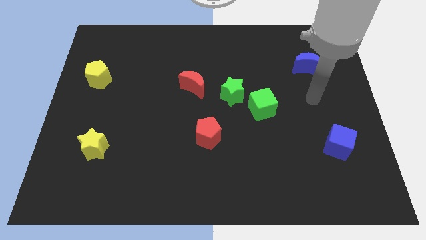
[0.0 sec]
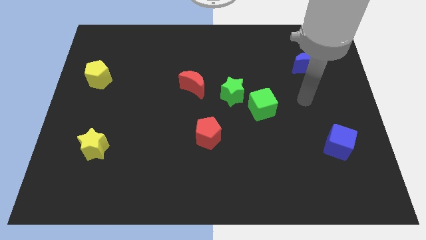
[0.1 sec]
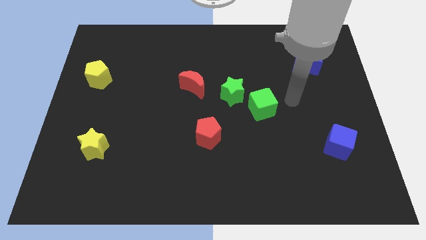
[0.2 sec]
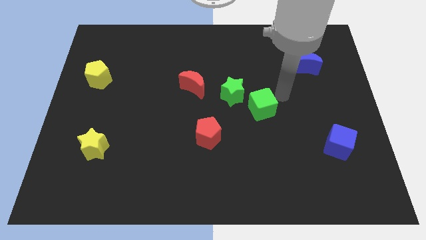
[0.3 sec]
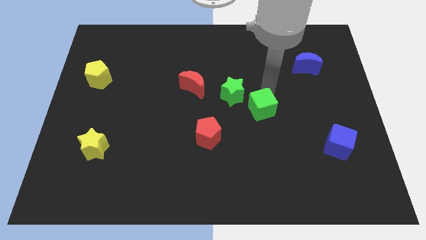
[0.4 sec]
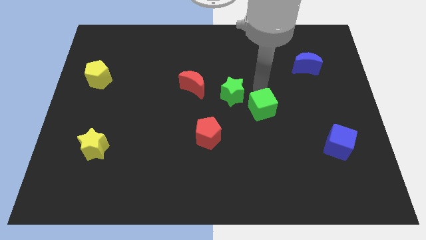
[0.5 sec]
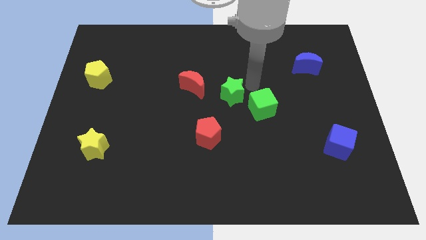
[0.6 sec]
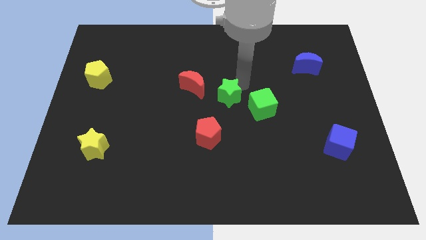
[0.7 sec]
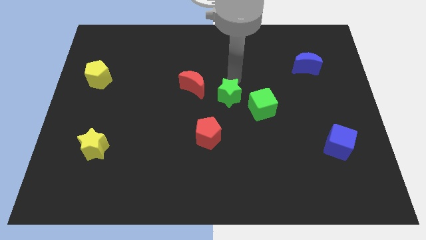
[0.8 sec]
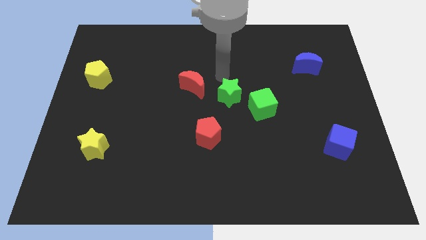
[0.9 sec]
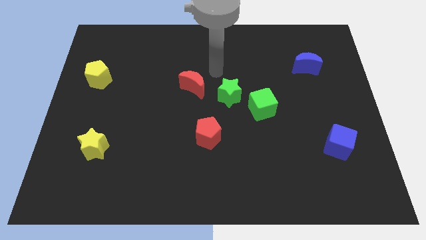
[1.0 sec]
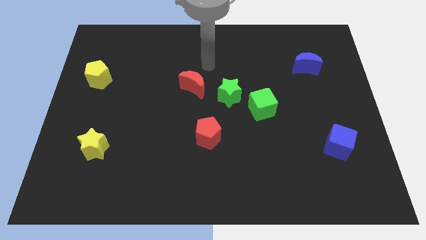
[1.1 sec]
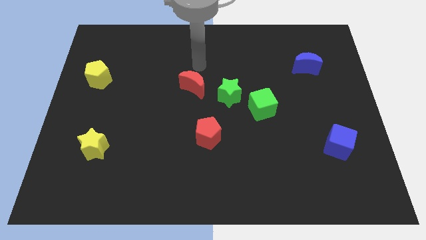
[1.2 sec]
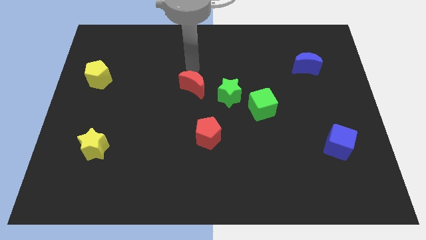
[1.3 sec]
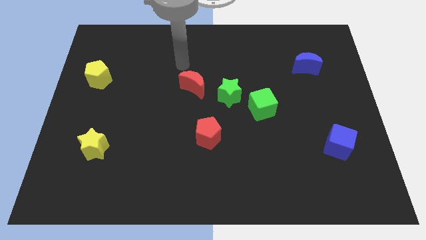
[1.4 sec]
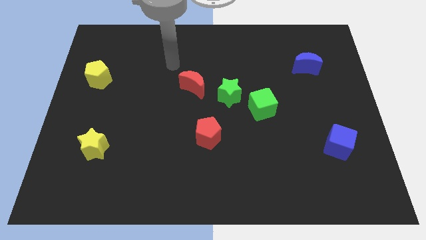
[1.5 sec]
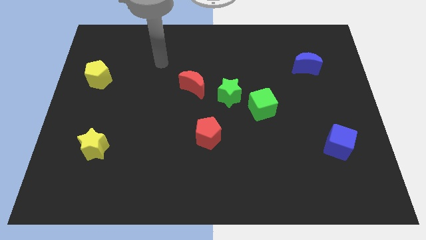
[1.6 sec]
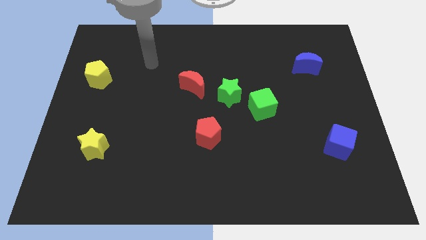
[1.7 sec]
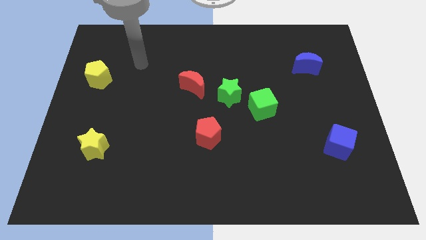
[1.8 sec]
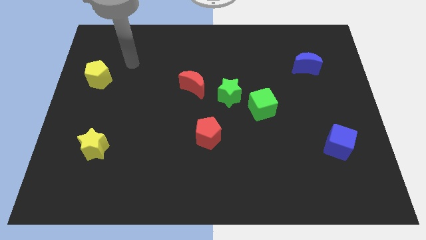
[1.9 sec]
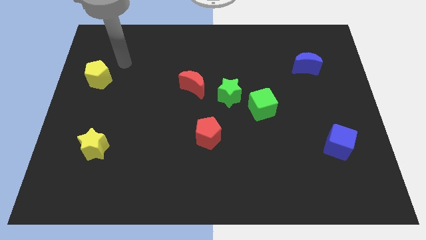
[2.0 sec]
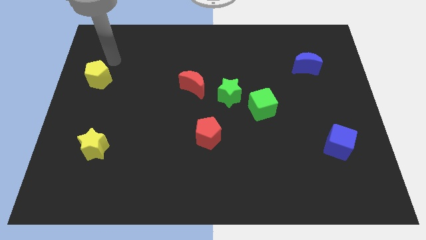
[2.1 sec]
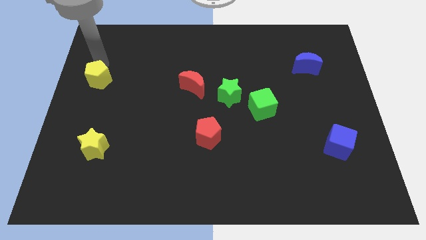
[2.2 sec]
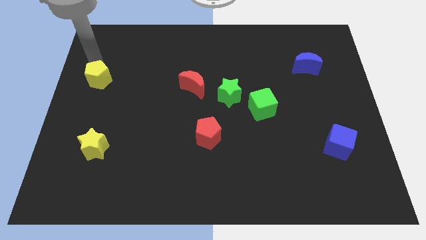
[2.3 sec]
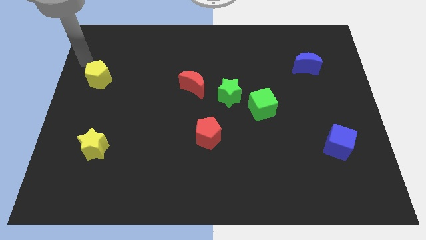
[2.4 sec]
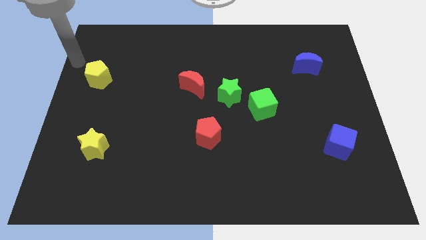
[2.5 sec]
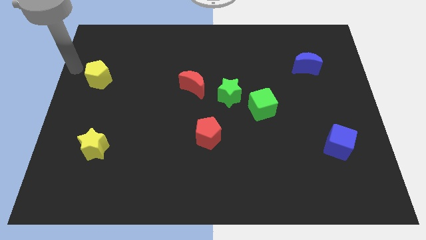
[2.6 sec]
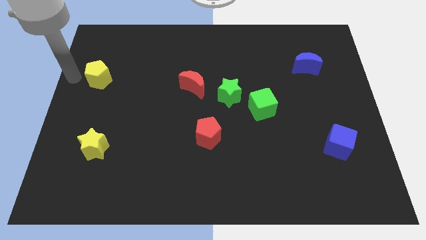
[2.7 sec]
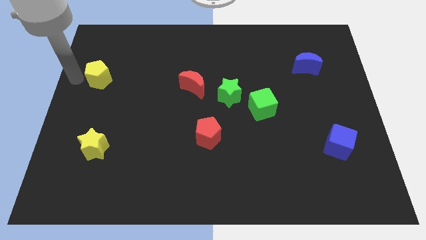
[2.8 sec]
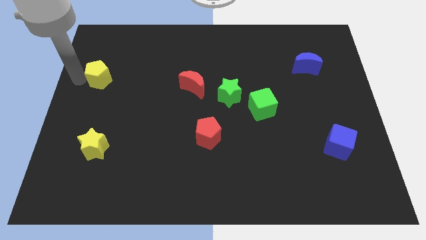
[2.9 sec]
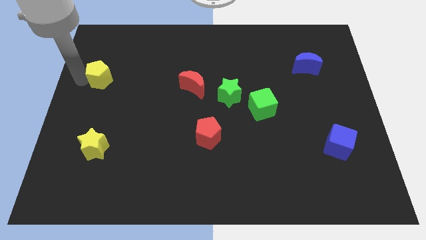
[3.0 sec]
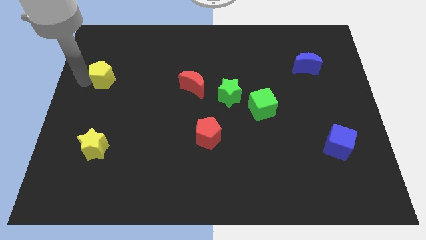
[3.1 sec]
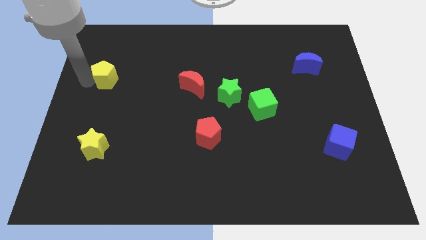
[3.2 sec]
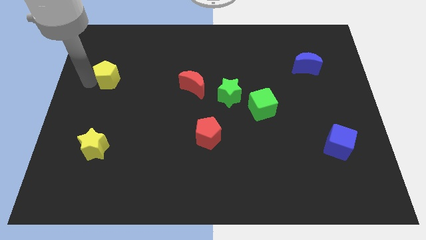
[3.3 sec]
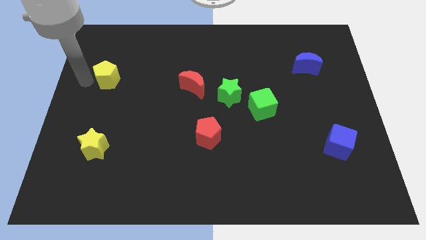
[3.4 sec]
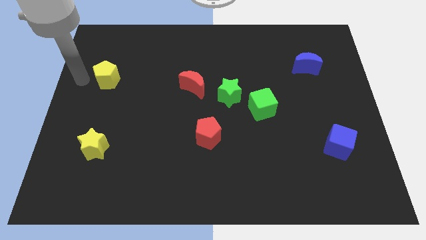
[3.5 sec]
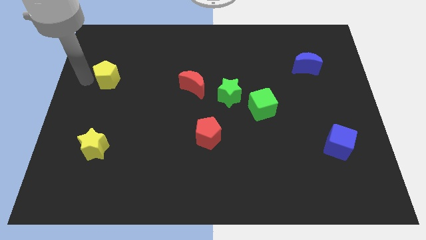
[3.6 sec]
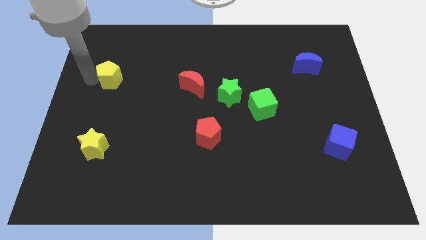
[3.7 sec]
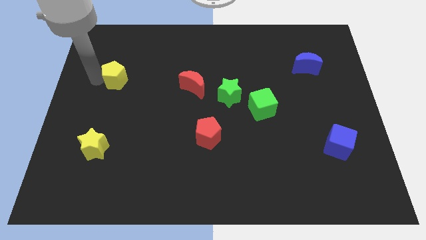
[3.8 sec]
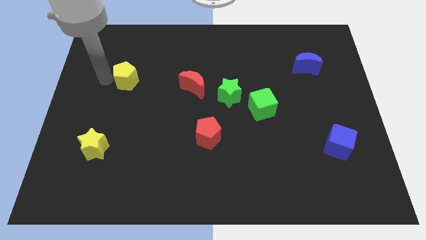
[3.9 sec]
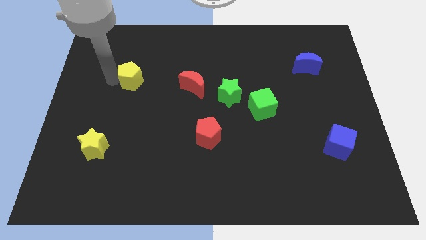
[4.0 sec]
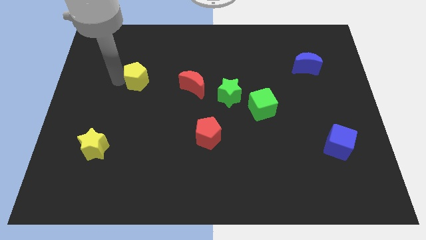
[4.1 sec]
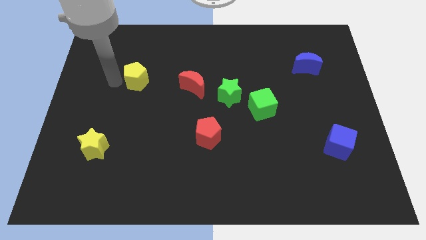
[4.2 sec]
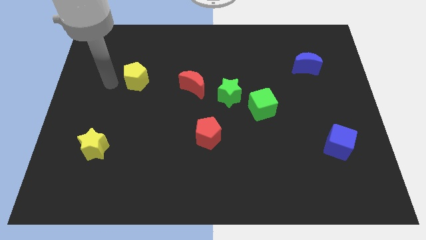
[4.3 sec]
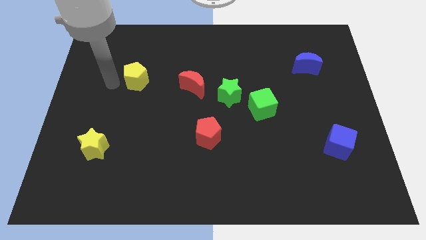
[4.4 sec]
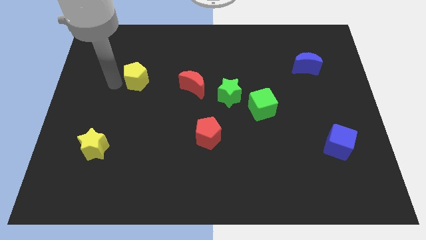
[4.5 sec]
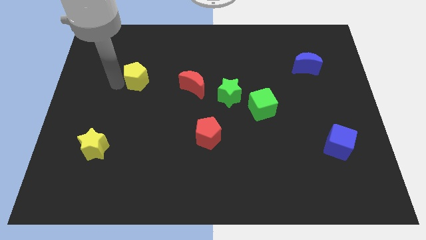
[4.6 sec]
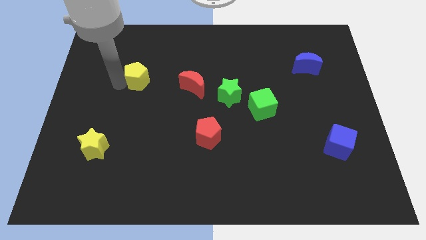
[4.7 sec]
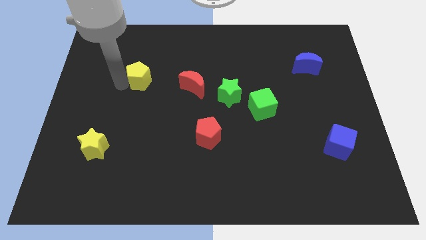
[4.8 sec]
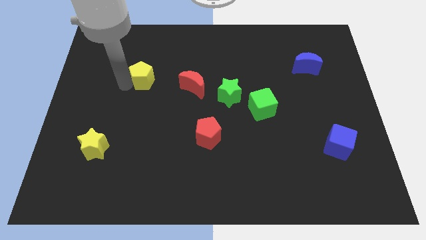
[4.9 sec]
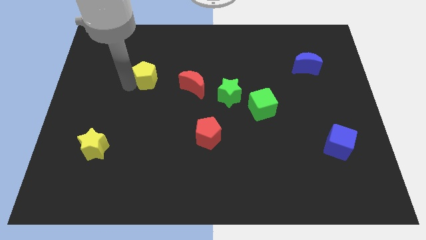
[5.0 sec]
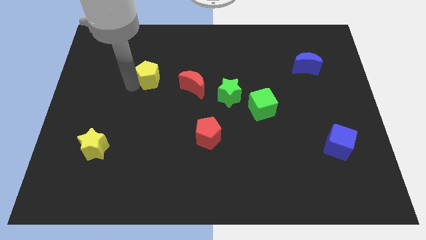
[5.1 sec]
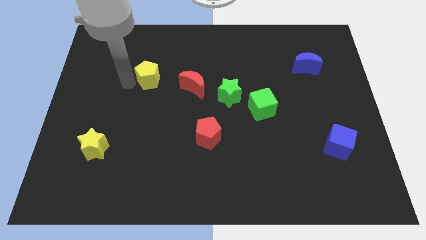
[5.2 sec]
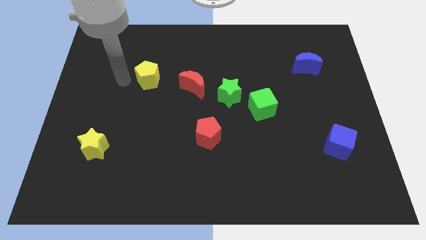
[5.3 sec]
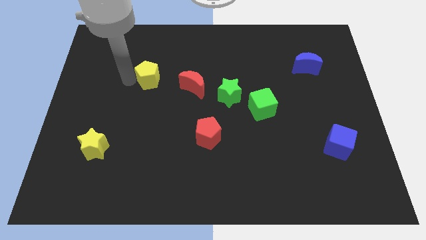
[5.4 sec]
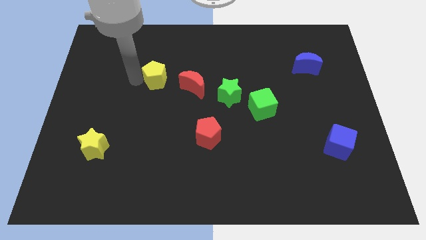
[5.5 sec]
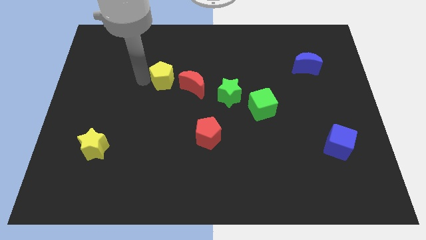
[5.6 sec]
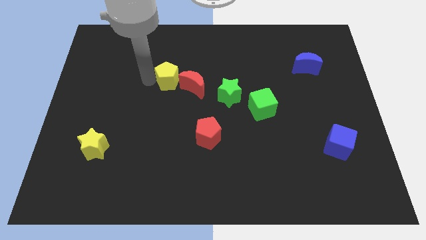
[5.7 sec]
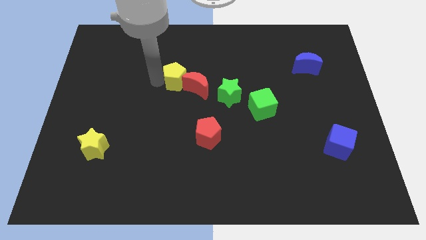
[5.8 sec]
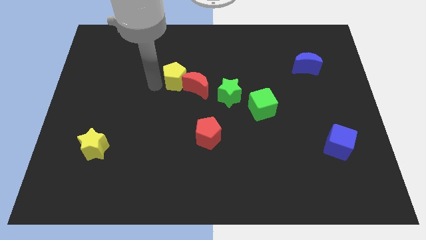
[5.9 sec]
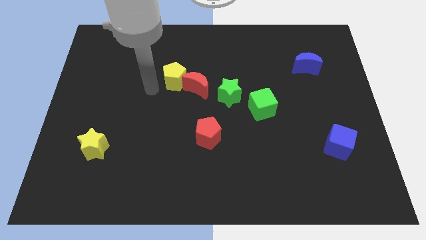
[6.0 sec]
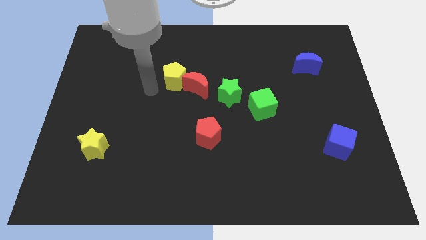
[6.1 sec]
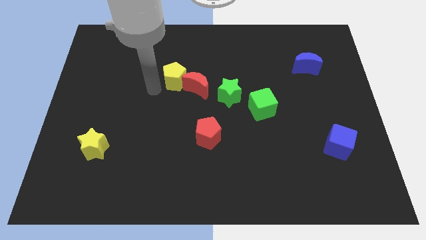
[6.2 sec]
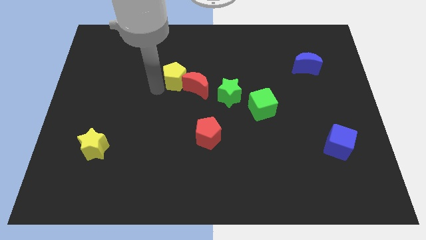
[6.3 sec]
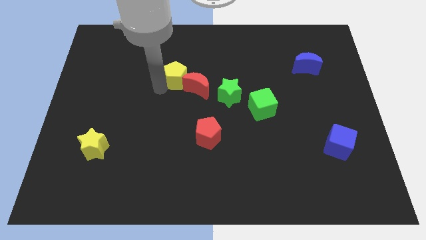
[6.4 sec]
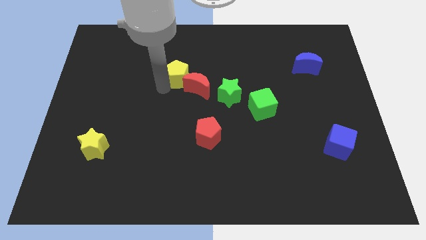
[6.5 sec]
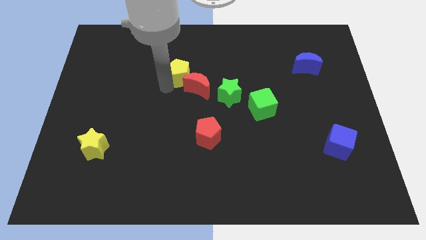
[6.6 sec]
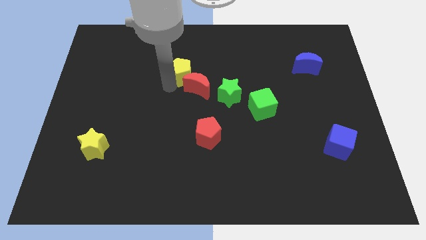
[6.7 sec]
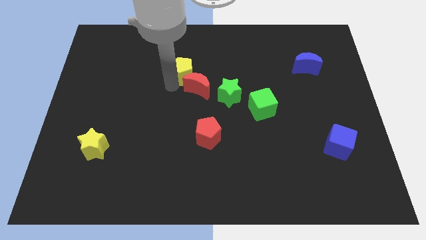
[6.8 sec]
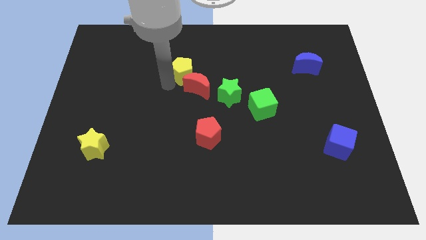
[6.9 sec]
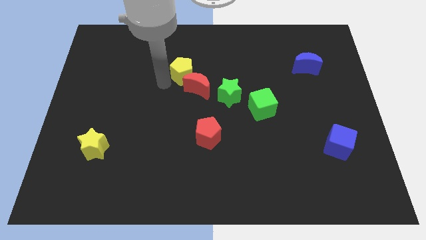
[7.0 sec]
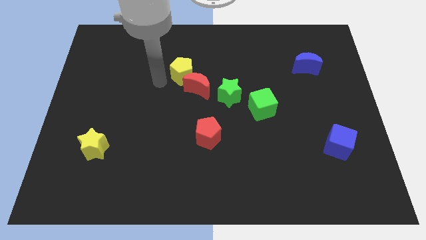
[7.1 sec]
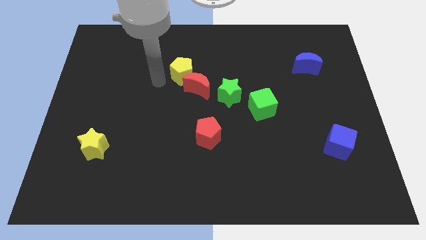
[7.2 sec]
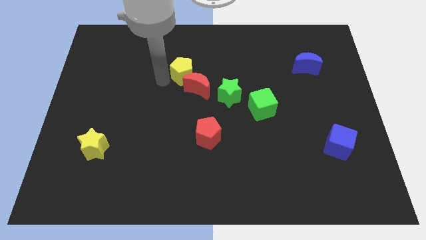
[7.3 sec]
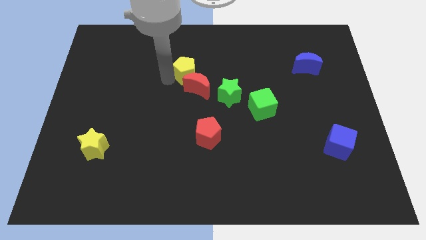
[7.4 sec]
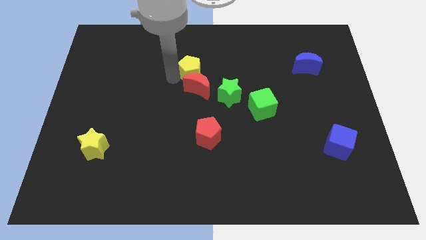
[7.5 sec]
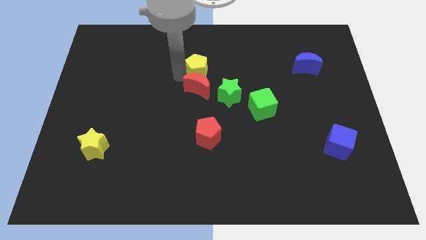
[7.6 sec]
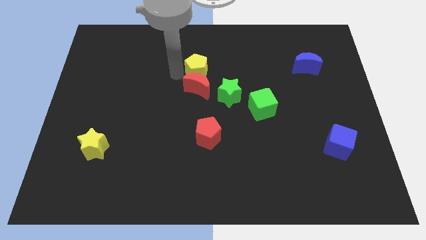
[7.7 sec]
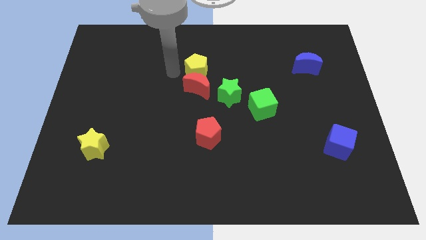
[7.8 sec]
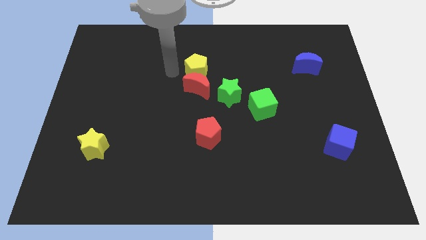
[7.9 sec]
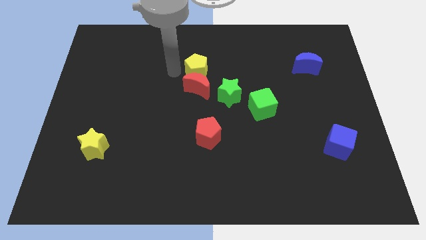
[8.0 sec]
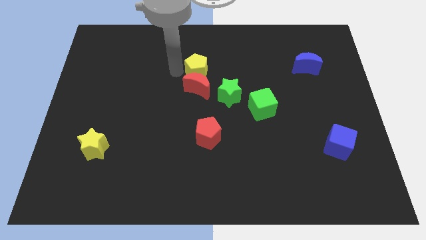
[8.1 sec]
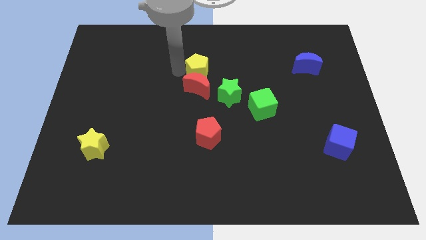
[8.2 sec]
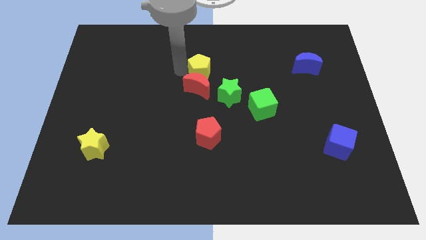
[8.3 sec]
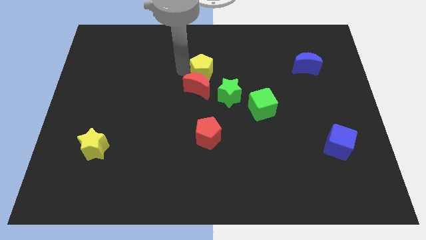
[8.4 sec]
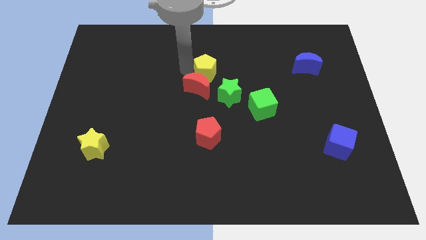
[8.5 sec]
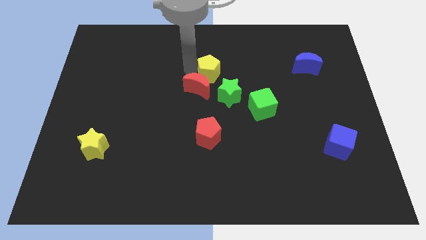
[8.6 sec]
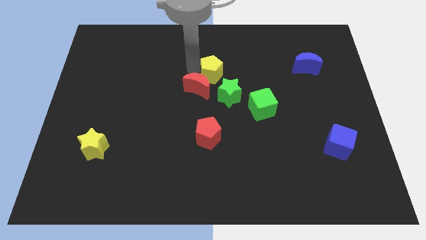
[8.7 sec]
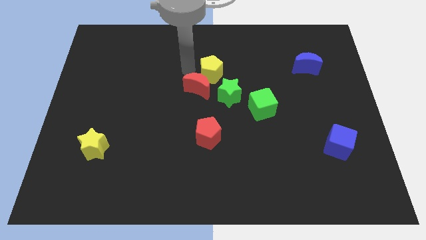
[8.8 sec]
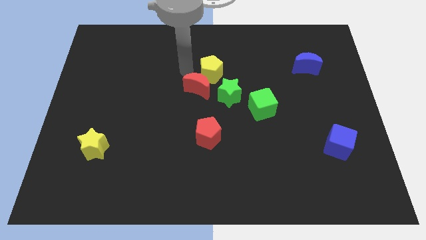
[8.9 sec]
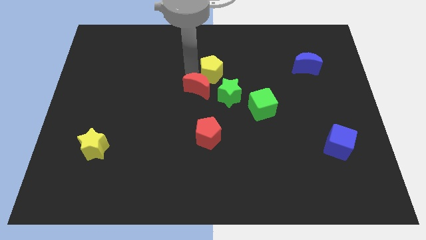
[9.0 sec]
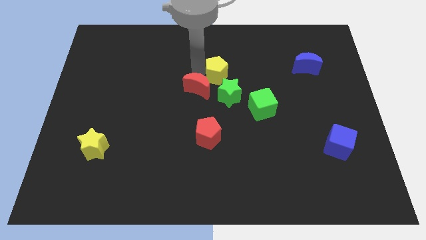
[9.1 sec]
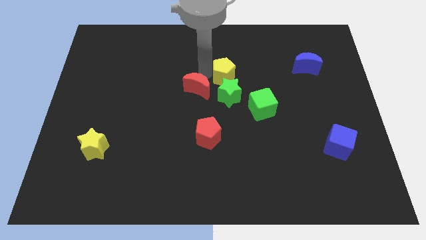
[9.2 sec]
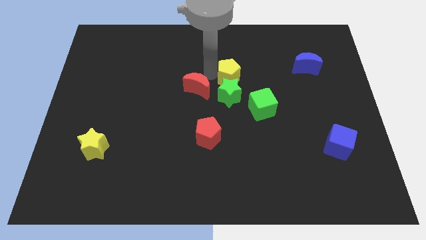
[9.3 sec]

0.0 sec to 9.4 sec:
put the yellow pentagon diagonally up and to the right of the green star
